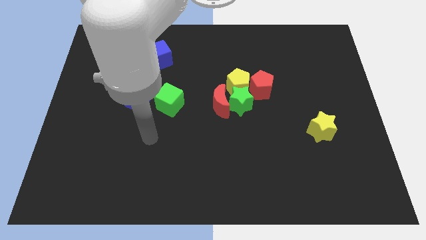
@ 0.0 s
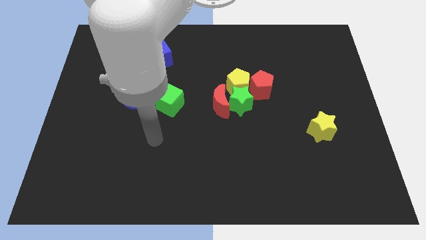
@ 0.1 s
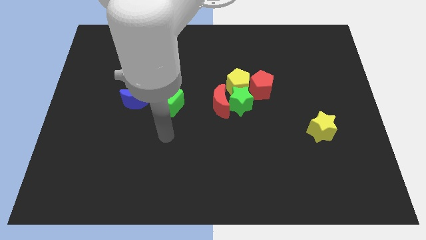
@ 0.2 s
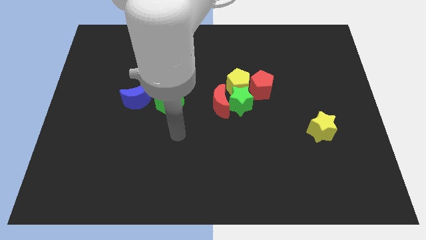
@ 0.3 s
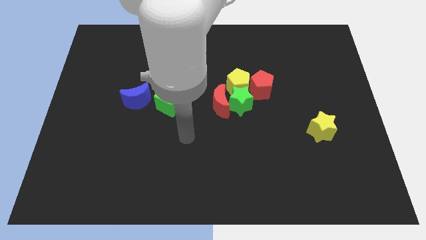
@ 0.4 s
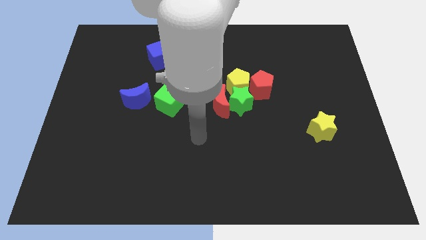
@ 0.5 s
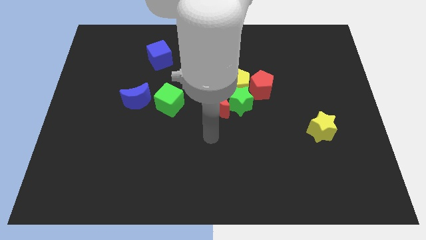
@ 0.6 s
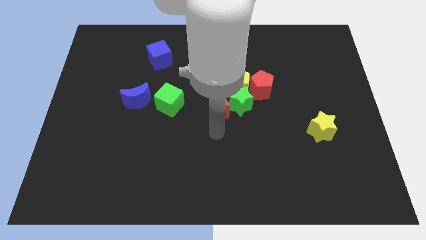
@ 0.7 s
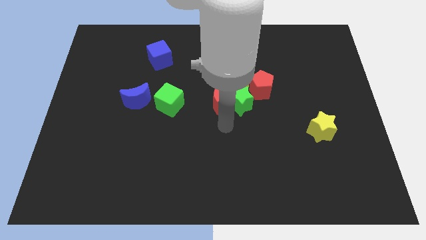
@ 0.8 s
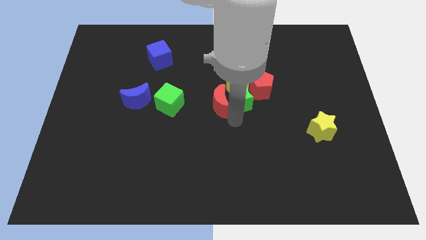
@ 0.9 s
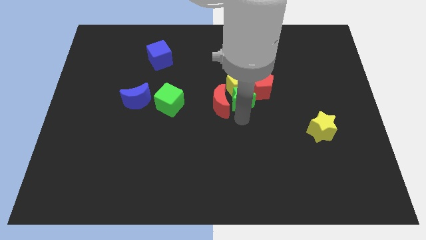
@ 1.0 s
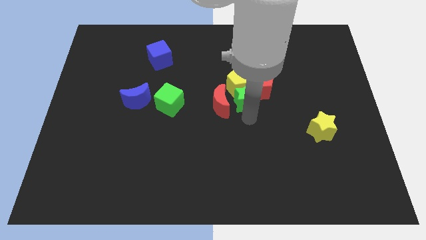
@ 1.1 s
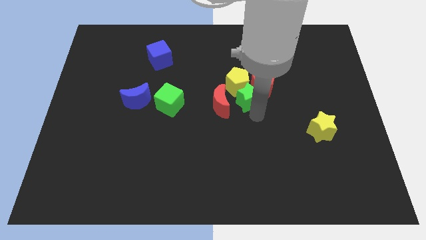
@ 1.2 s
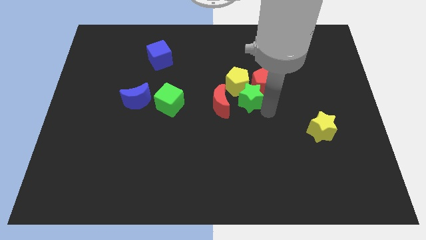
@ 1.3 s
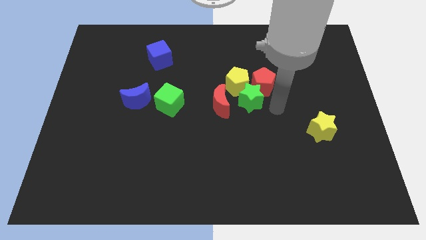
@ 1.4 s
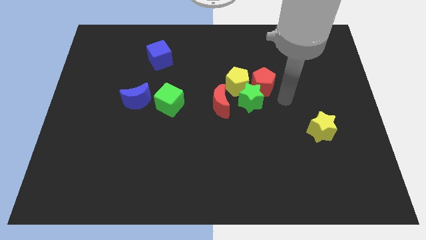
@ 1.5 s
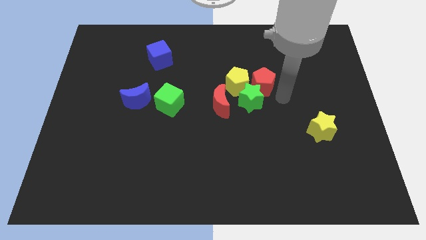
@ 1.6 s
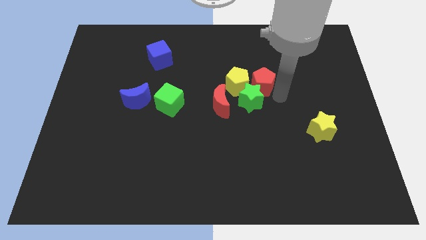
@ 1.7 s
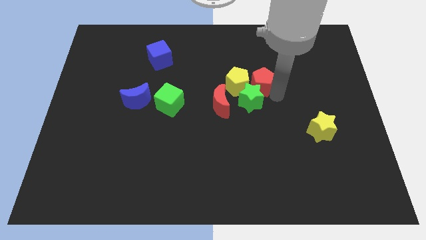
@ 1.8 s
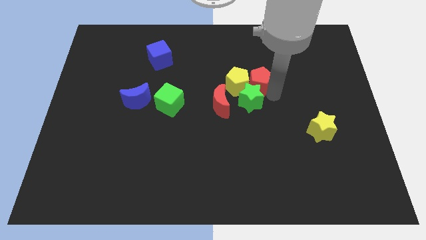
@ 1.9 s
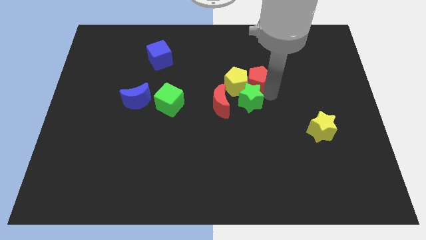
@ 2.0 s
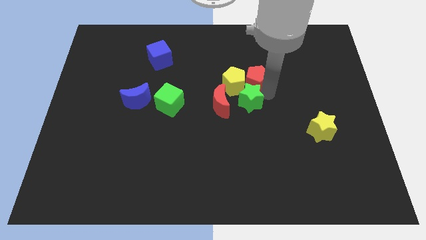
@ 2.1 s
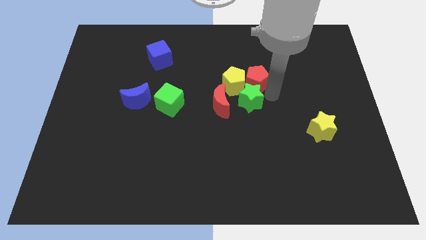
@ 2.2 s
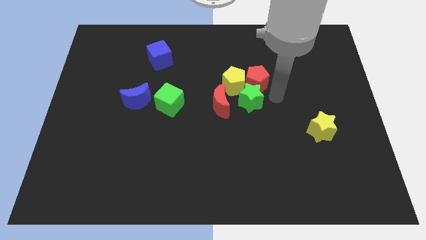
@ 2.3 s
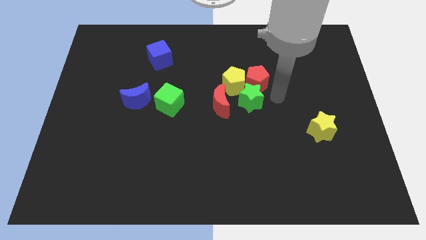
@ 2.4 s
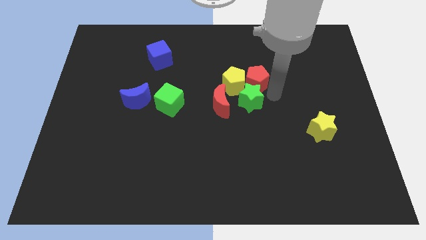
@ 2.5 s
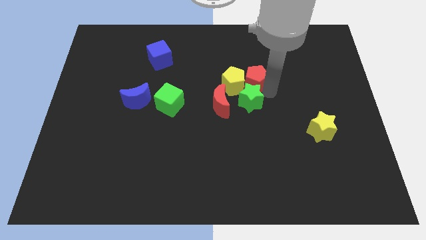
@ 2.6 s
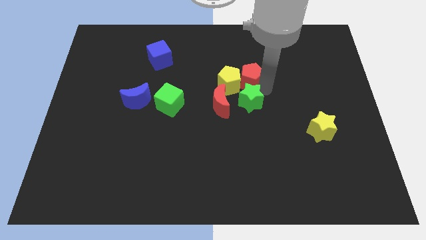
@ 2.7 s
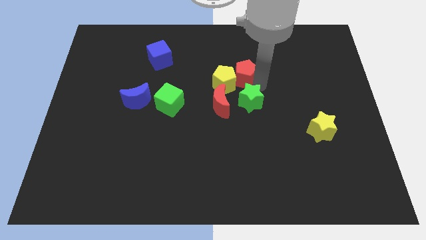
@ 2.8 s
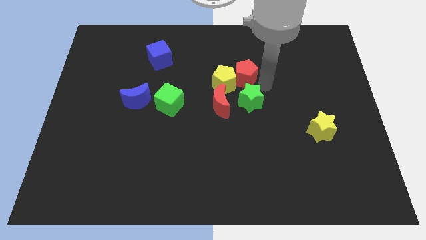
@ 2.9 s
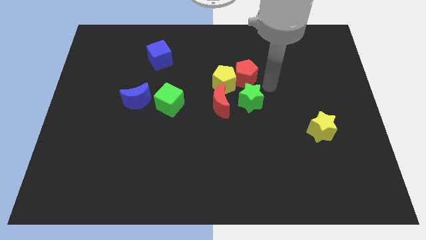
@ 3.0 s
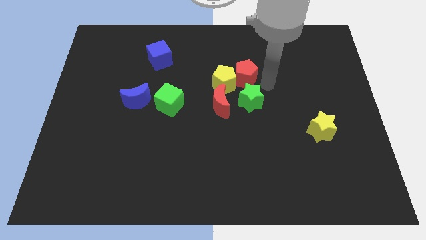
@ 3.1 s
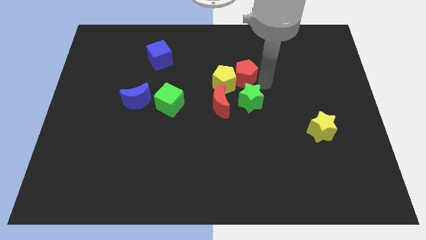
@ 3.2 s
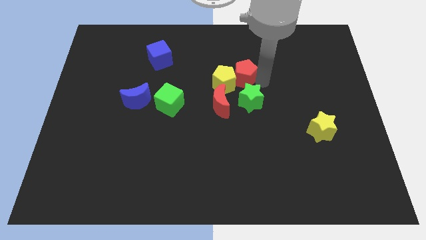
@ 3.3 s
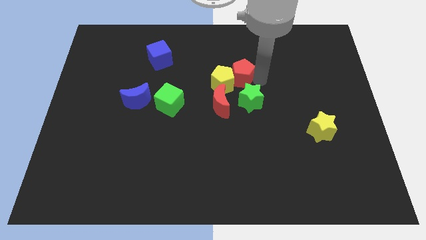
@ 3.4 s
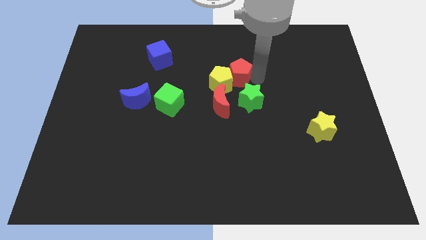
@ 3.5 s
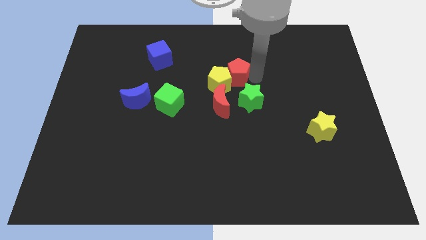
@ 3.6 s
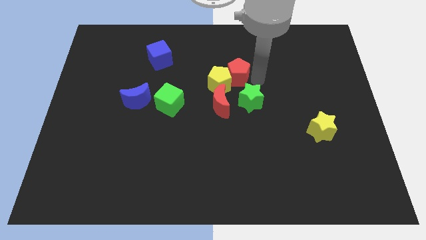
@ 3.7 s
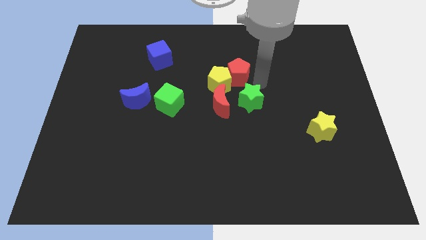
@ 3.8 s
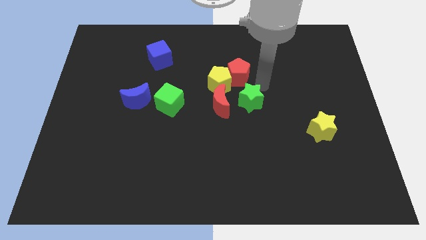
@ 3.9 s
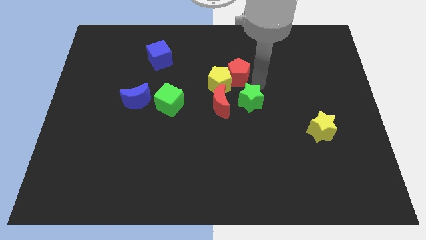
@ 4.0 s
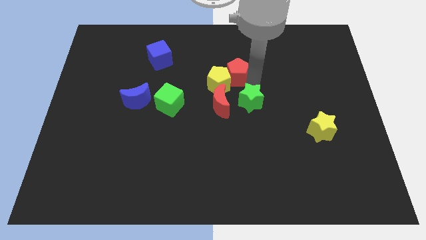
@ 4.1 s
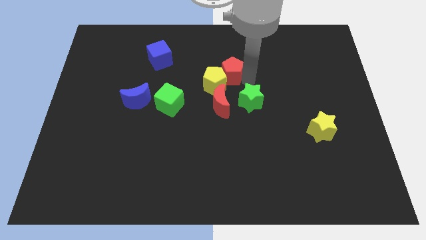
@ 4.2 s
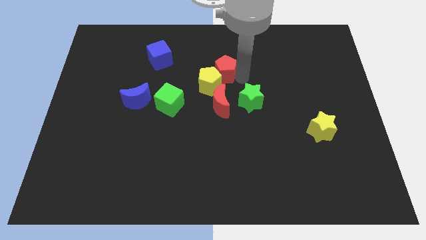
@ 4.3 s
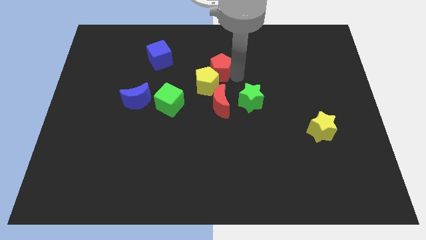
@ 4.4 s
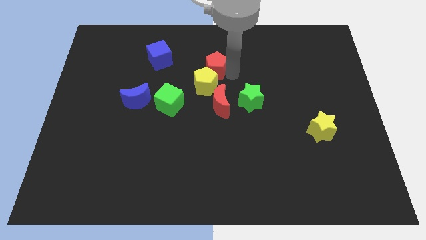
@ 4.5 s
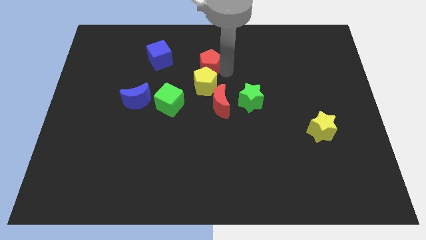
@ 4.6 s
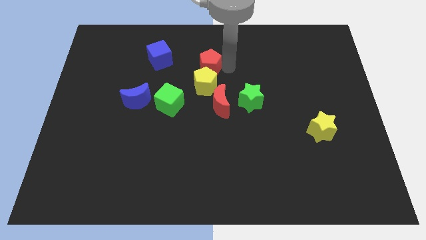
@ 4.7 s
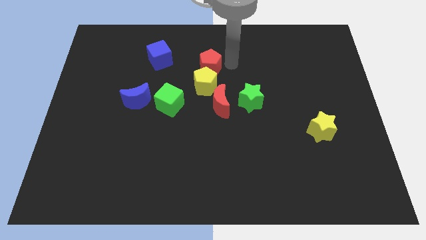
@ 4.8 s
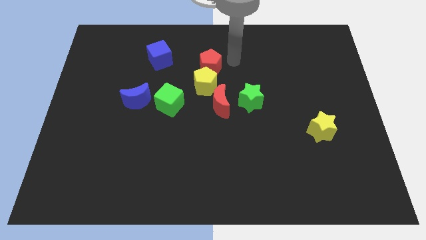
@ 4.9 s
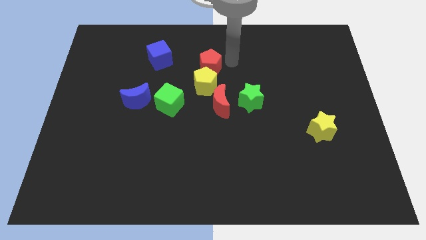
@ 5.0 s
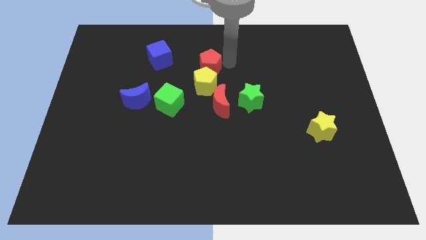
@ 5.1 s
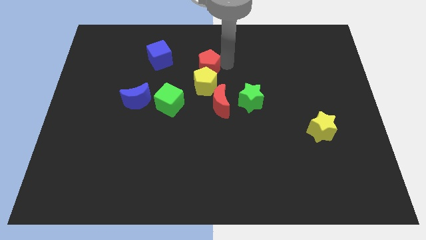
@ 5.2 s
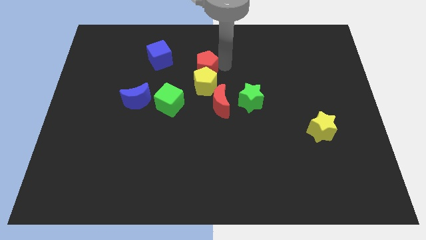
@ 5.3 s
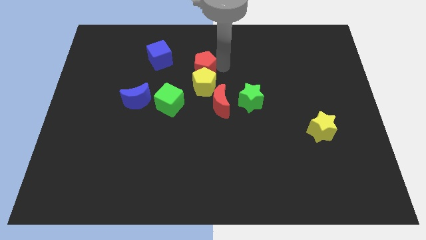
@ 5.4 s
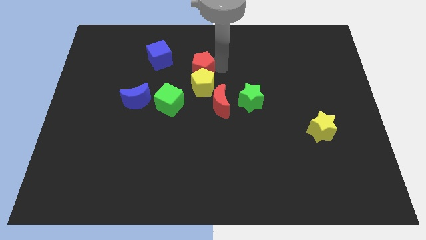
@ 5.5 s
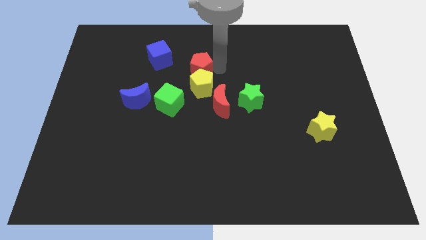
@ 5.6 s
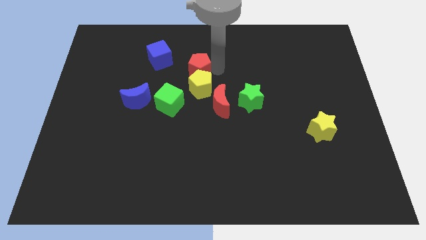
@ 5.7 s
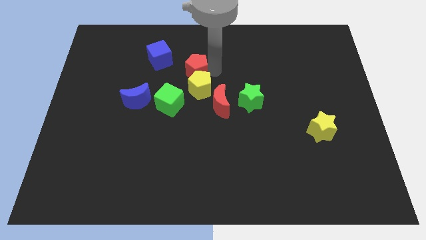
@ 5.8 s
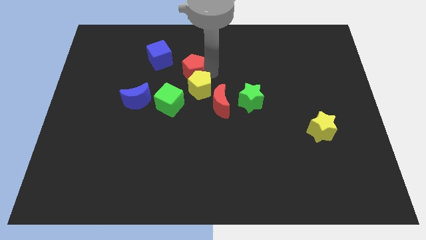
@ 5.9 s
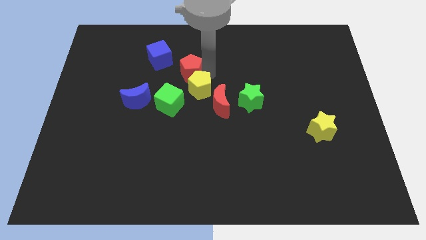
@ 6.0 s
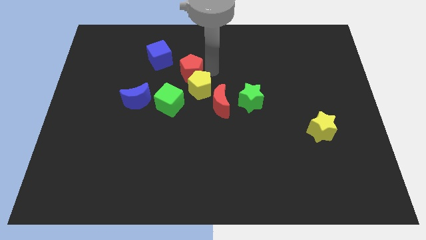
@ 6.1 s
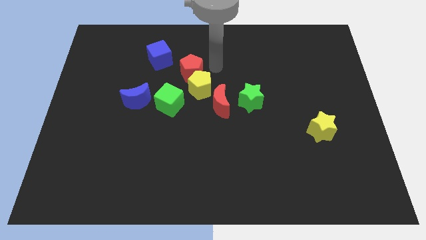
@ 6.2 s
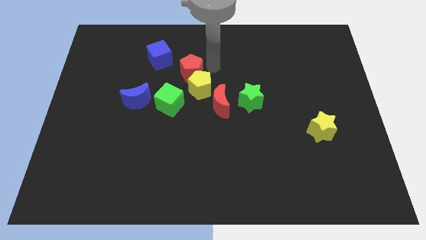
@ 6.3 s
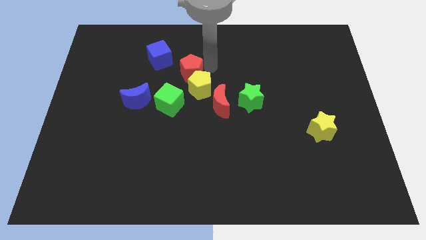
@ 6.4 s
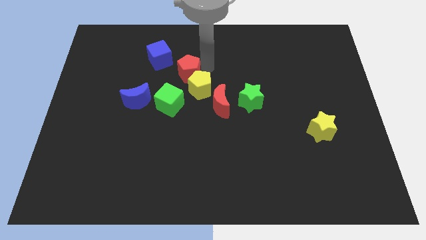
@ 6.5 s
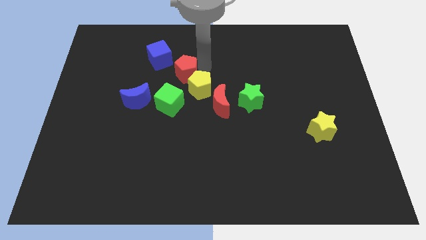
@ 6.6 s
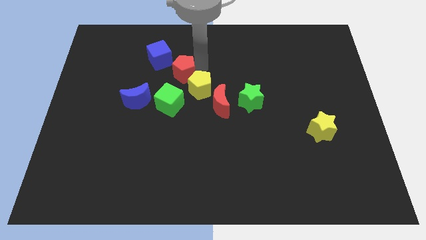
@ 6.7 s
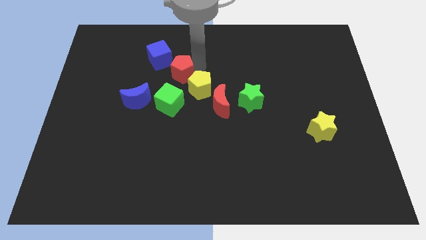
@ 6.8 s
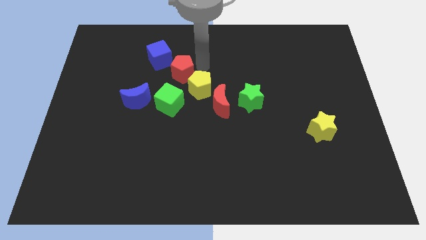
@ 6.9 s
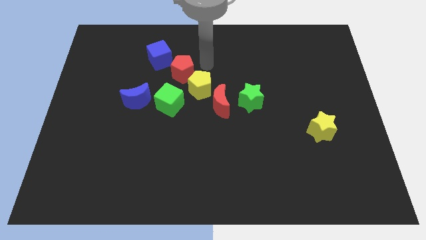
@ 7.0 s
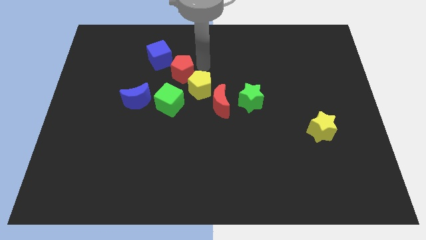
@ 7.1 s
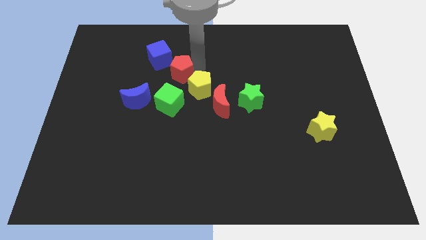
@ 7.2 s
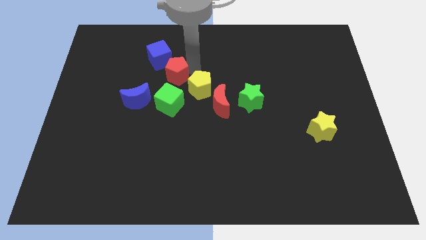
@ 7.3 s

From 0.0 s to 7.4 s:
push the red pentagon left

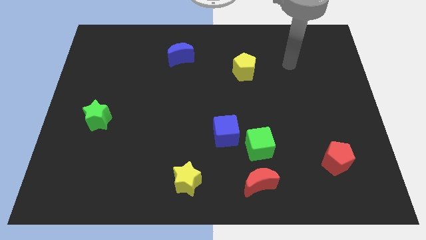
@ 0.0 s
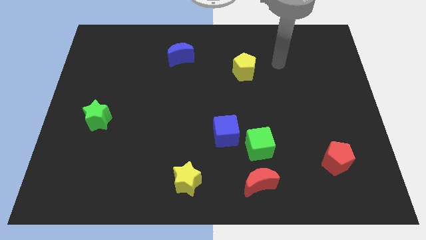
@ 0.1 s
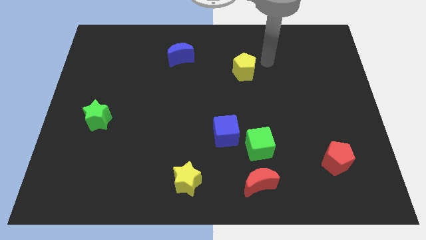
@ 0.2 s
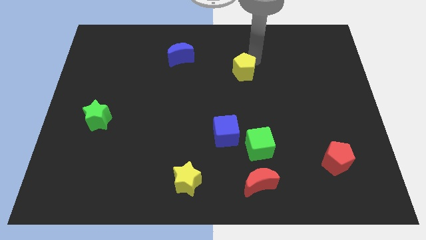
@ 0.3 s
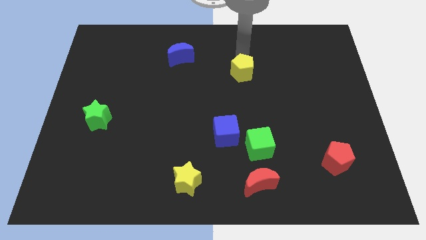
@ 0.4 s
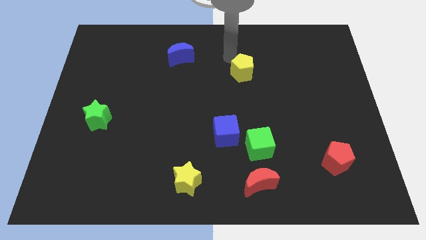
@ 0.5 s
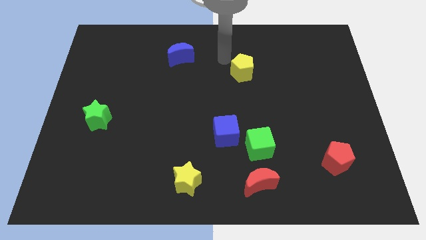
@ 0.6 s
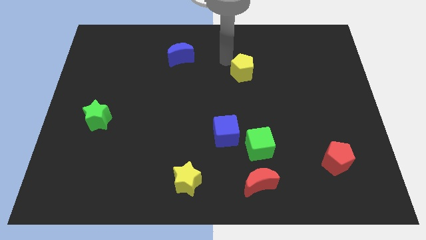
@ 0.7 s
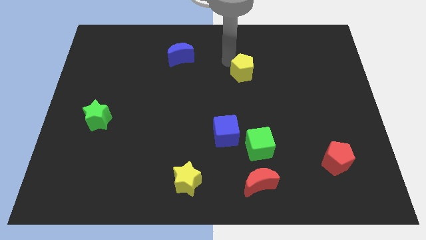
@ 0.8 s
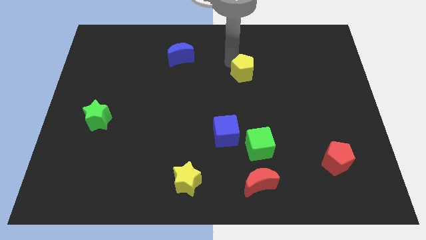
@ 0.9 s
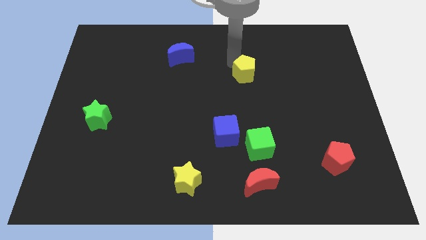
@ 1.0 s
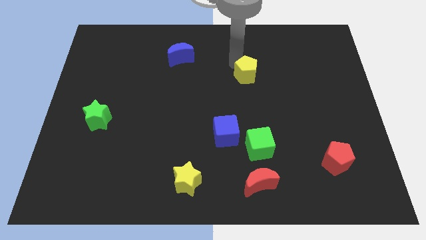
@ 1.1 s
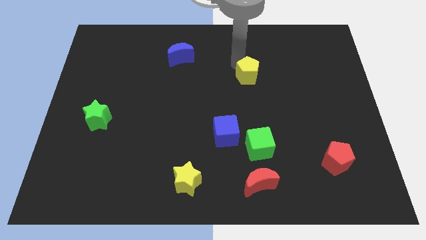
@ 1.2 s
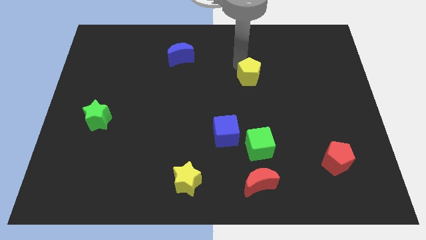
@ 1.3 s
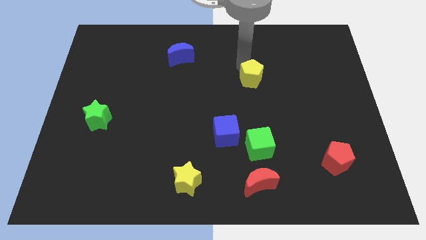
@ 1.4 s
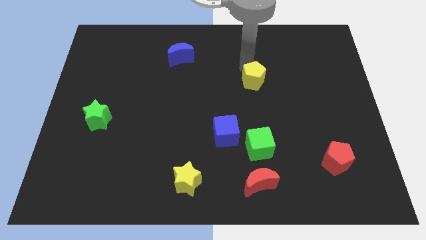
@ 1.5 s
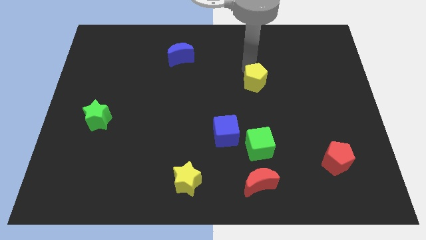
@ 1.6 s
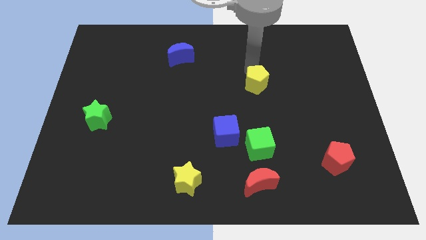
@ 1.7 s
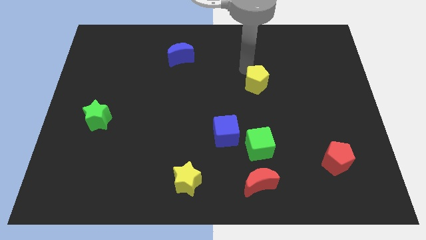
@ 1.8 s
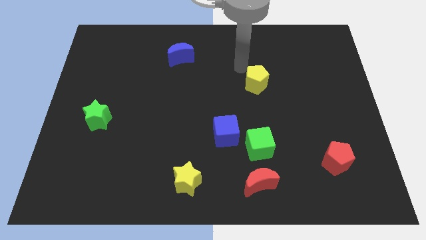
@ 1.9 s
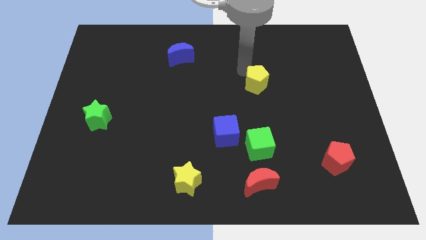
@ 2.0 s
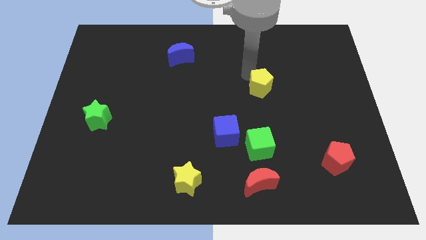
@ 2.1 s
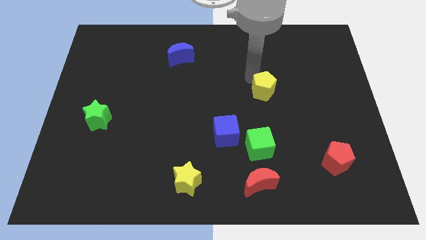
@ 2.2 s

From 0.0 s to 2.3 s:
slightly slide the yellow pentagon downwards and then to the right
